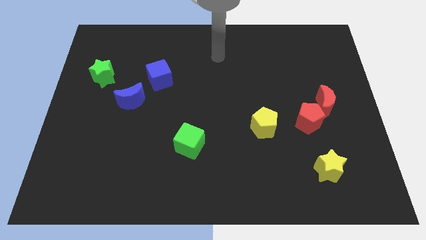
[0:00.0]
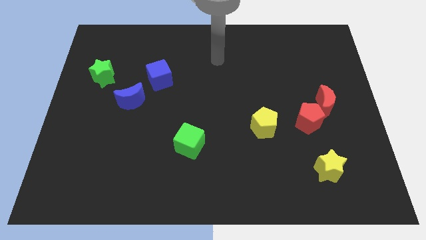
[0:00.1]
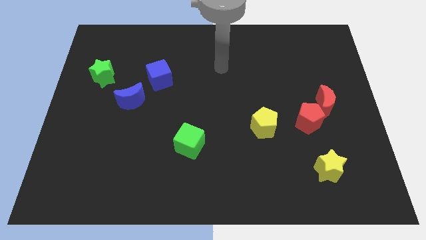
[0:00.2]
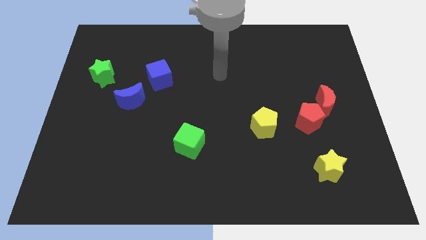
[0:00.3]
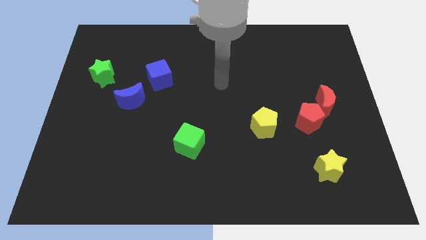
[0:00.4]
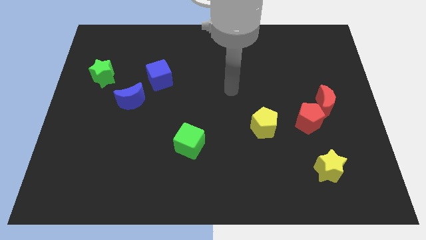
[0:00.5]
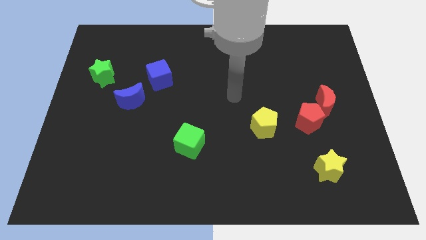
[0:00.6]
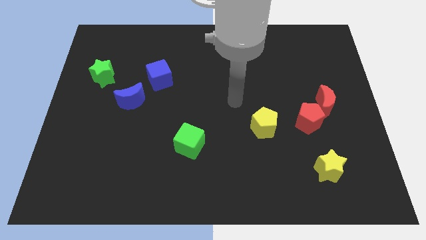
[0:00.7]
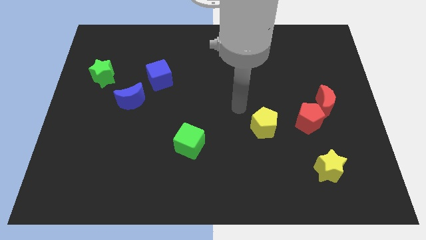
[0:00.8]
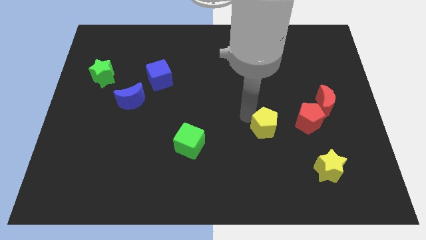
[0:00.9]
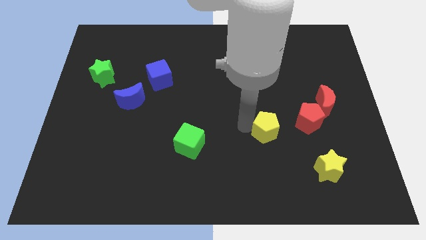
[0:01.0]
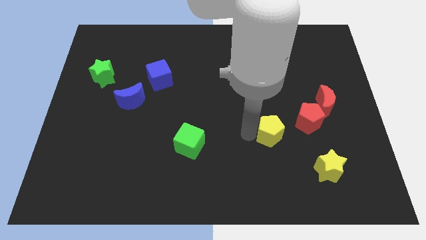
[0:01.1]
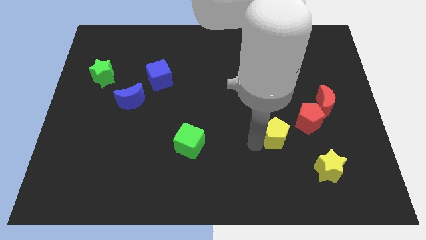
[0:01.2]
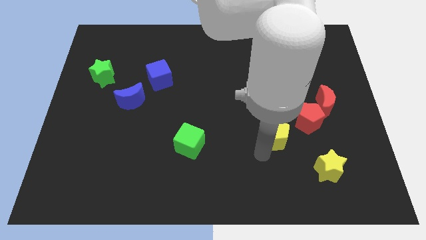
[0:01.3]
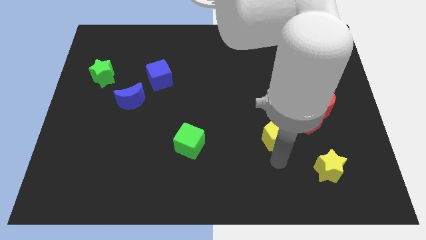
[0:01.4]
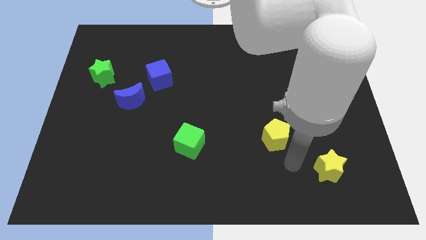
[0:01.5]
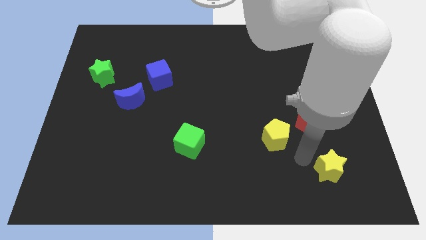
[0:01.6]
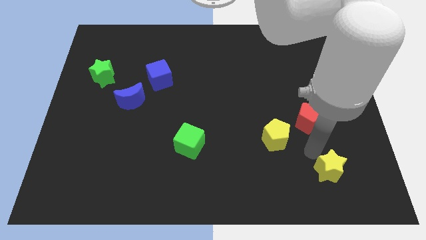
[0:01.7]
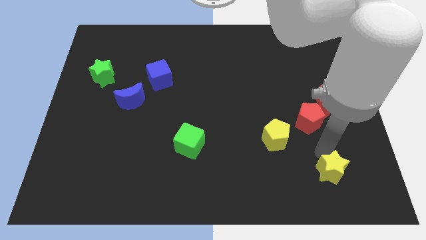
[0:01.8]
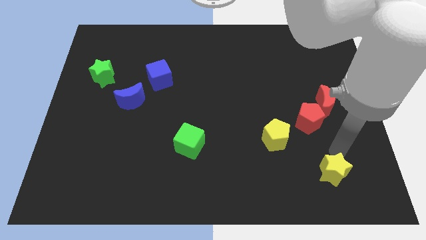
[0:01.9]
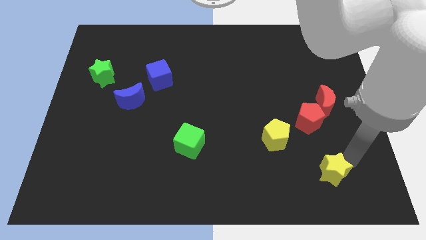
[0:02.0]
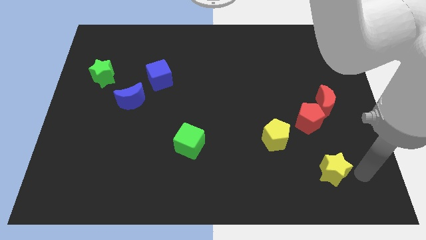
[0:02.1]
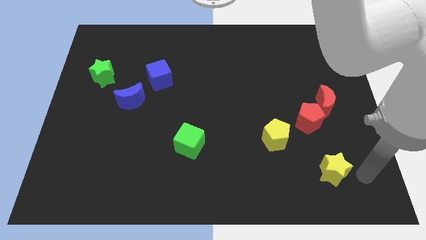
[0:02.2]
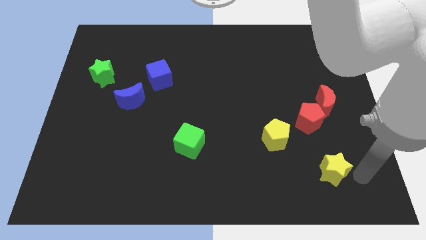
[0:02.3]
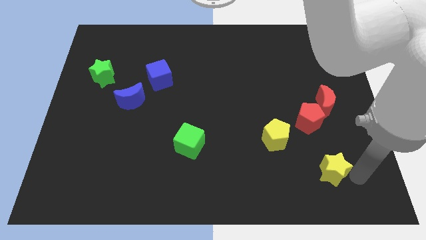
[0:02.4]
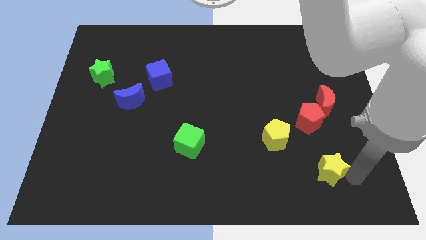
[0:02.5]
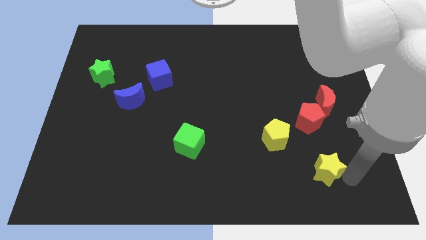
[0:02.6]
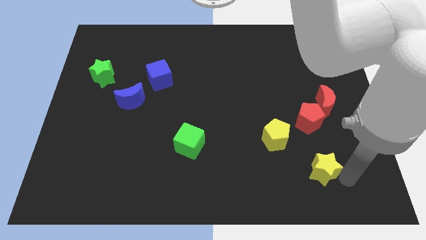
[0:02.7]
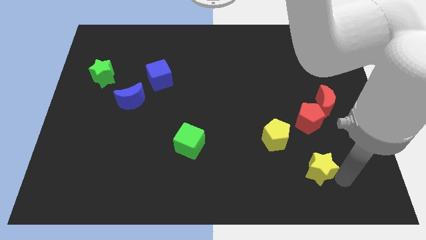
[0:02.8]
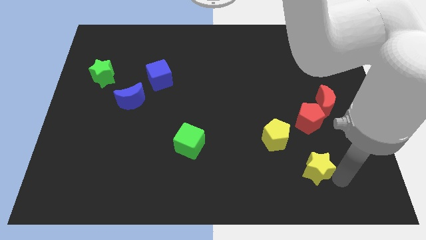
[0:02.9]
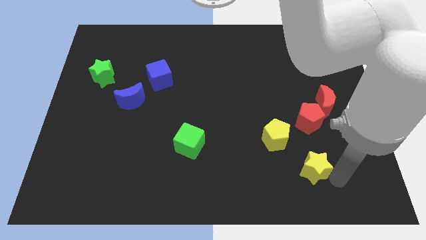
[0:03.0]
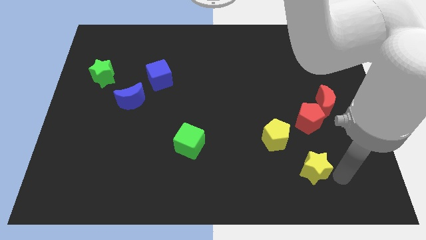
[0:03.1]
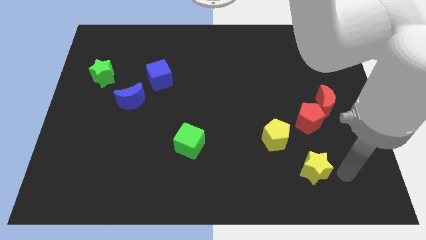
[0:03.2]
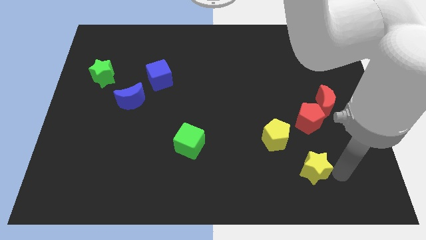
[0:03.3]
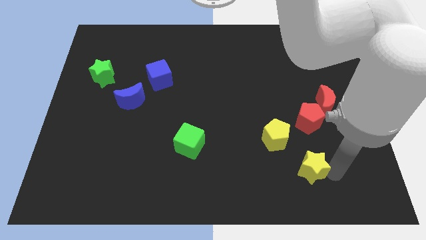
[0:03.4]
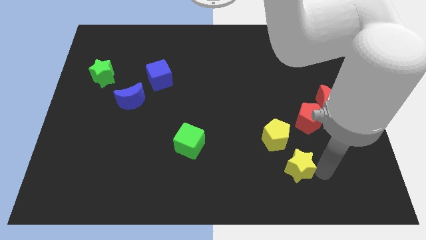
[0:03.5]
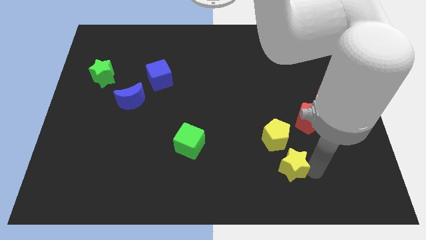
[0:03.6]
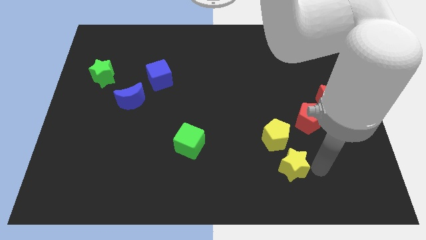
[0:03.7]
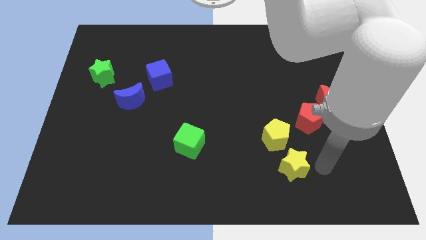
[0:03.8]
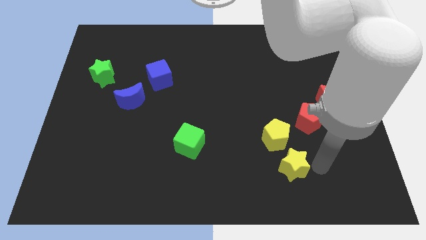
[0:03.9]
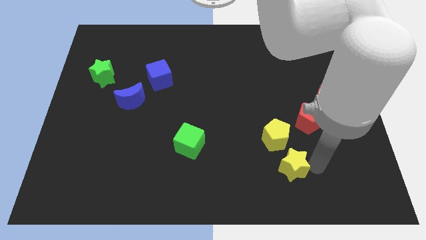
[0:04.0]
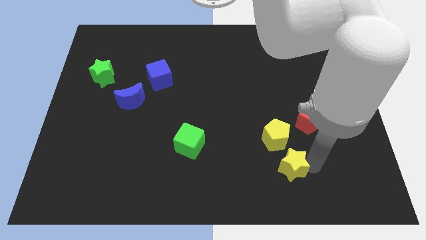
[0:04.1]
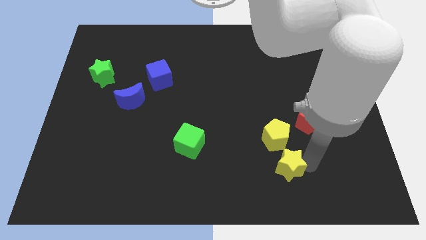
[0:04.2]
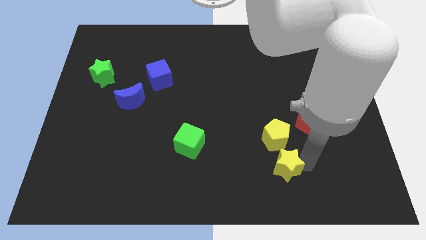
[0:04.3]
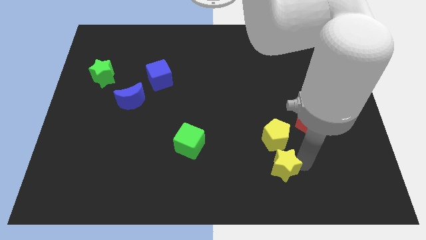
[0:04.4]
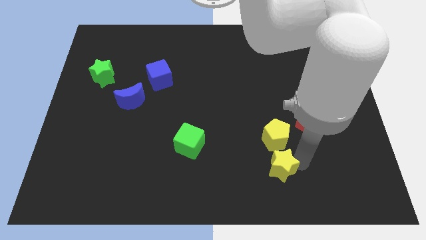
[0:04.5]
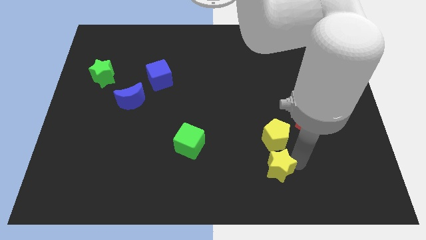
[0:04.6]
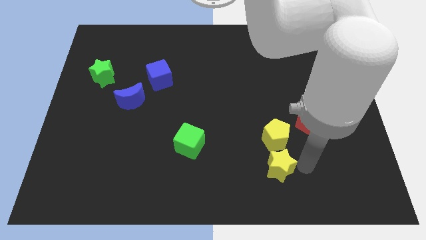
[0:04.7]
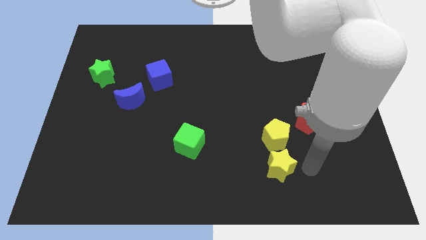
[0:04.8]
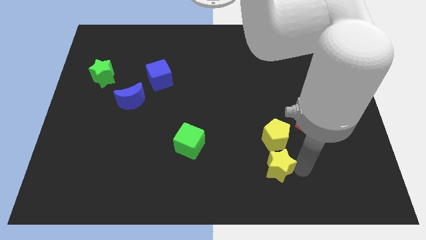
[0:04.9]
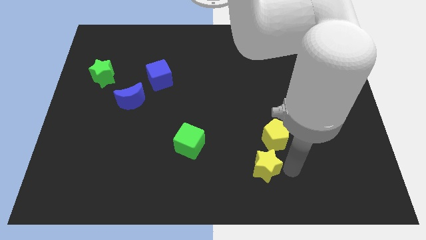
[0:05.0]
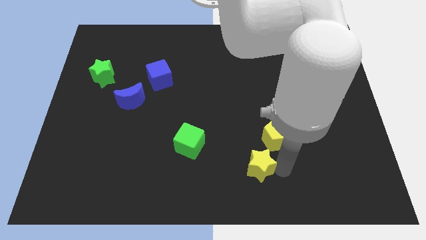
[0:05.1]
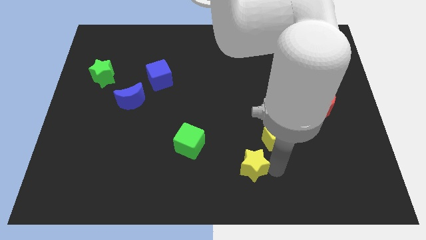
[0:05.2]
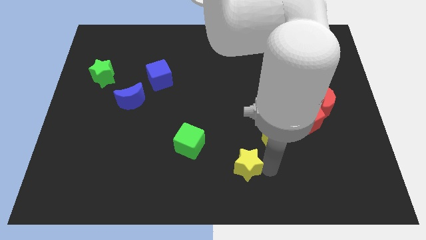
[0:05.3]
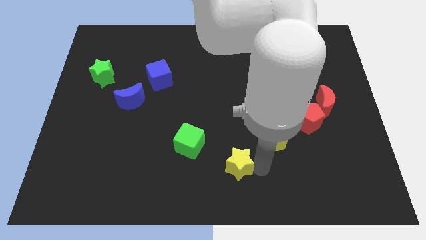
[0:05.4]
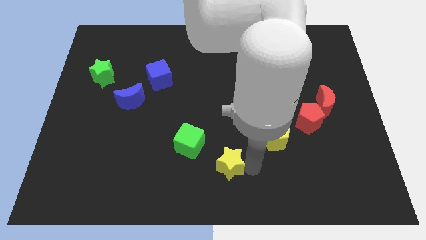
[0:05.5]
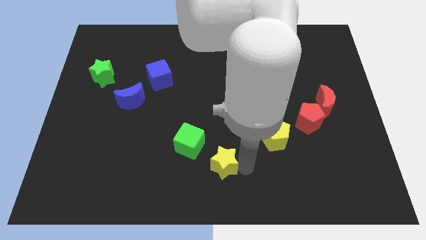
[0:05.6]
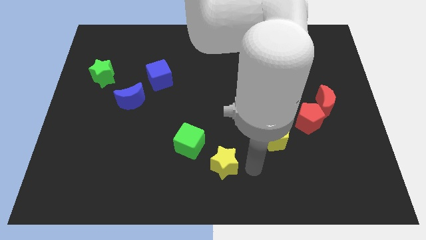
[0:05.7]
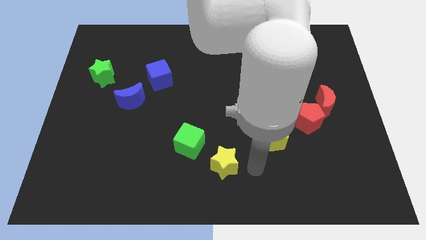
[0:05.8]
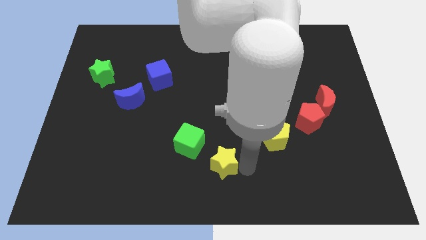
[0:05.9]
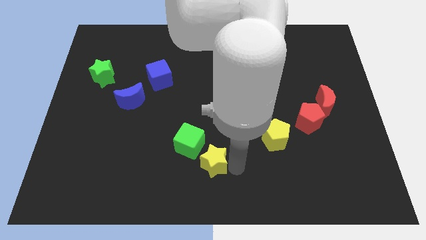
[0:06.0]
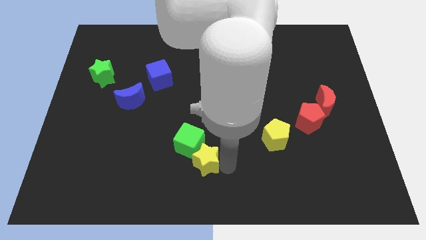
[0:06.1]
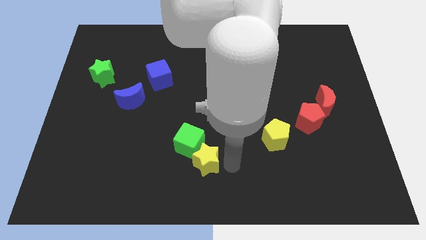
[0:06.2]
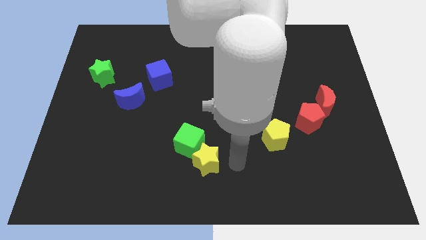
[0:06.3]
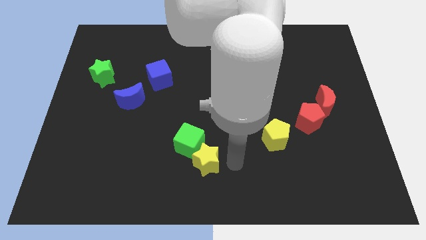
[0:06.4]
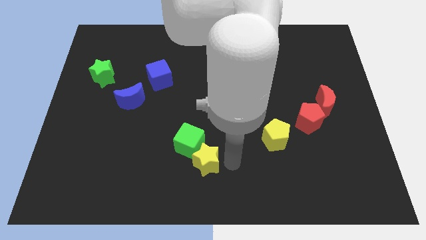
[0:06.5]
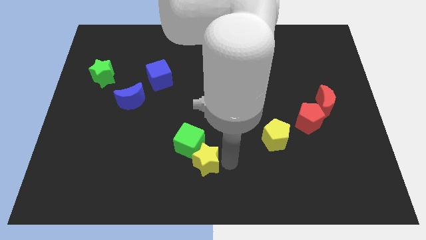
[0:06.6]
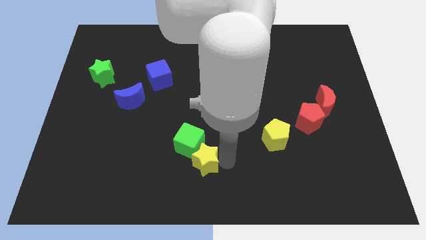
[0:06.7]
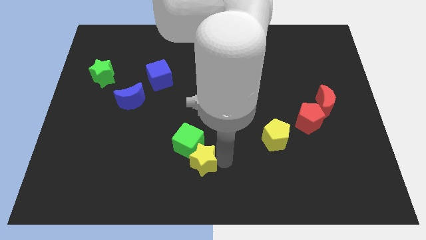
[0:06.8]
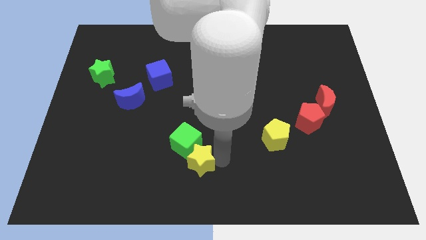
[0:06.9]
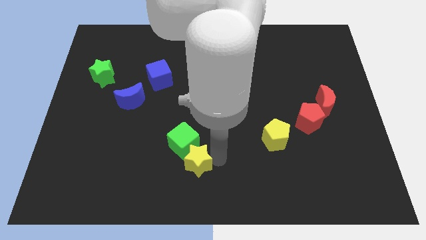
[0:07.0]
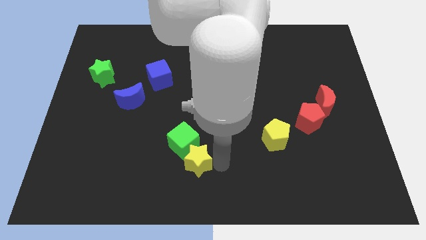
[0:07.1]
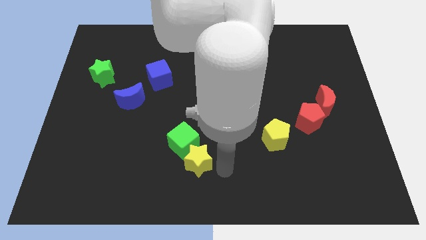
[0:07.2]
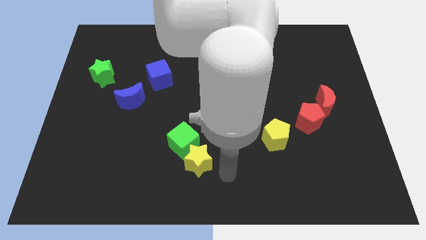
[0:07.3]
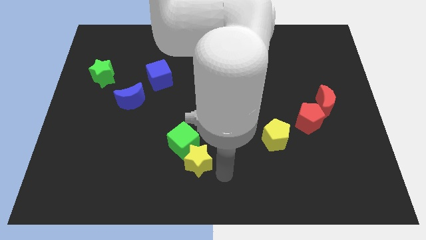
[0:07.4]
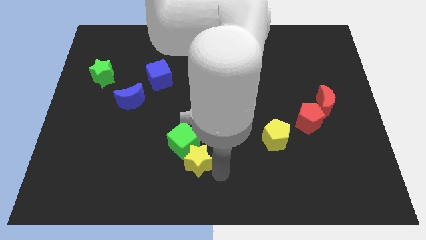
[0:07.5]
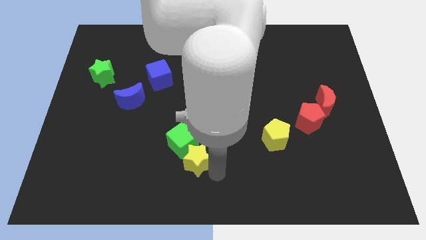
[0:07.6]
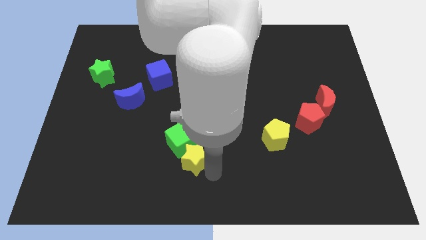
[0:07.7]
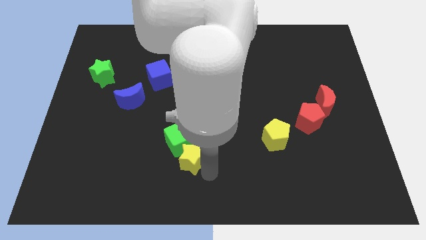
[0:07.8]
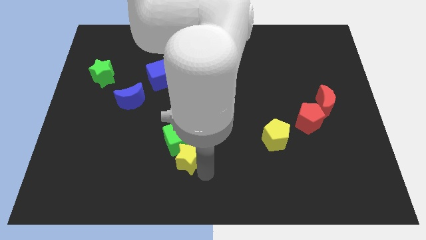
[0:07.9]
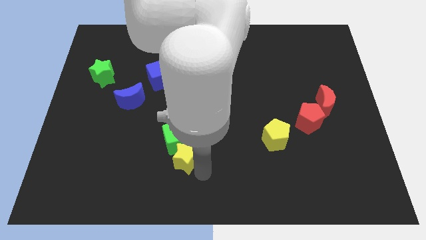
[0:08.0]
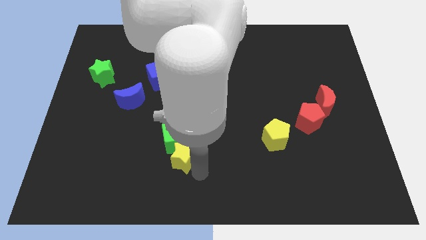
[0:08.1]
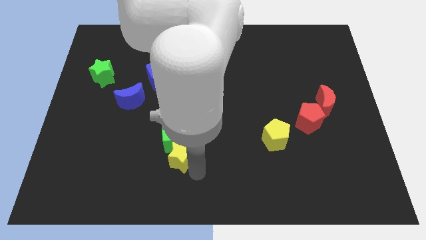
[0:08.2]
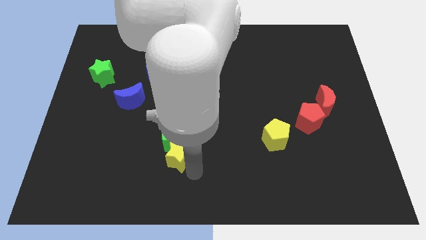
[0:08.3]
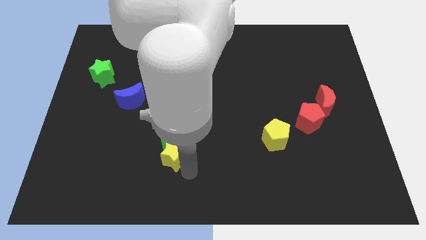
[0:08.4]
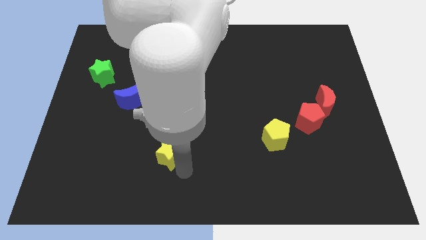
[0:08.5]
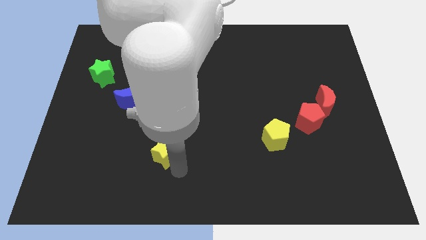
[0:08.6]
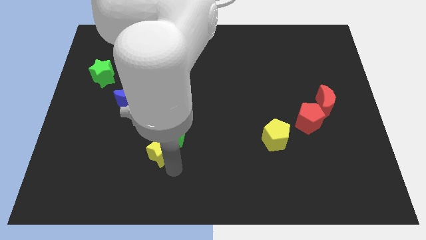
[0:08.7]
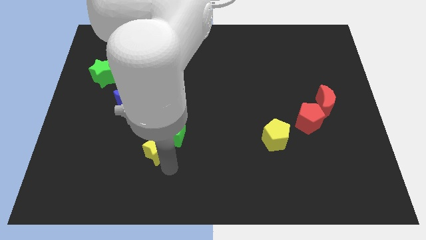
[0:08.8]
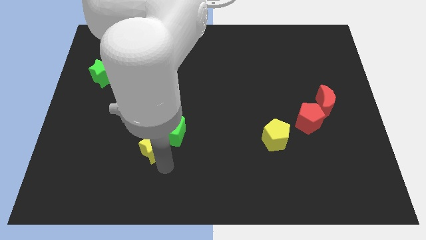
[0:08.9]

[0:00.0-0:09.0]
move the yellow star to the left of the green cube
